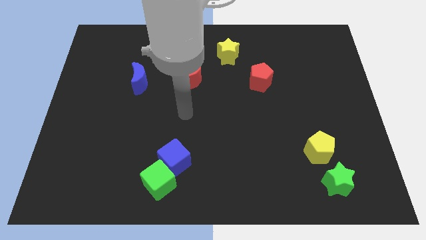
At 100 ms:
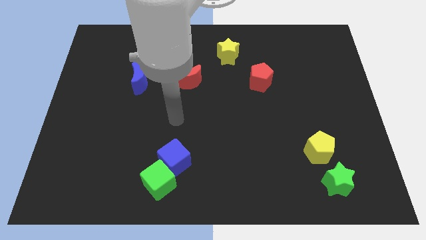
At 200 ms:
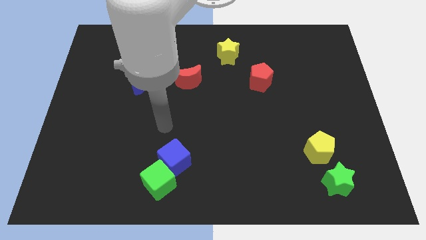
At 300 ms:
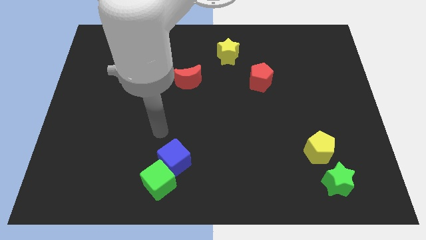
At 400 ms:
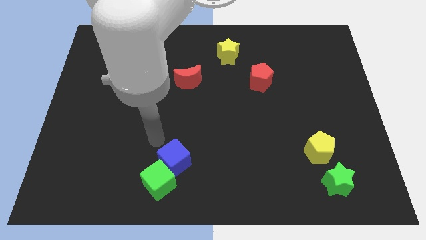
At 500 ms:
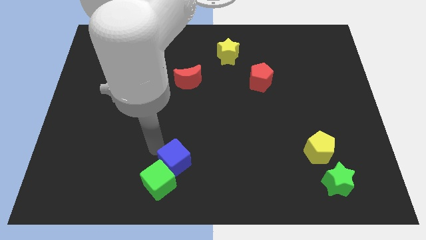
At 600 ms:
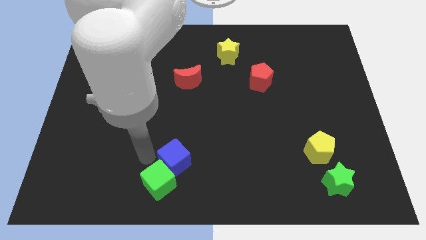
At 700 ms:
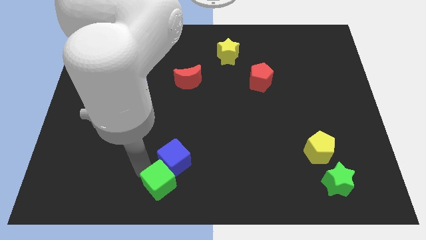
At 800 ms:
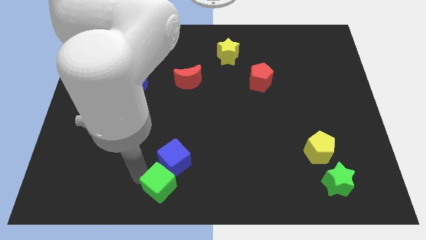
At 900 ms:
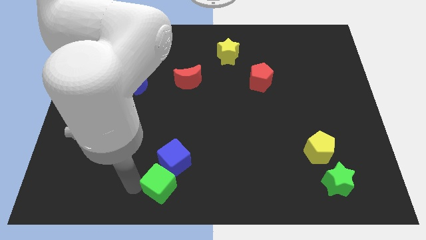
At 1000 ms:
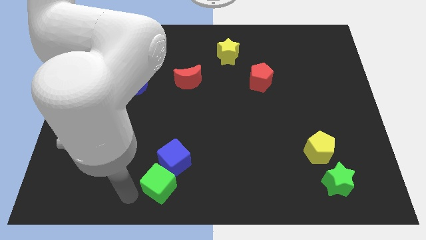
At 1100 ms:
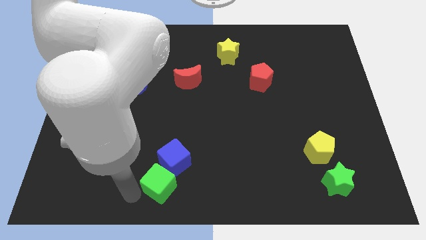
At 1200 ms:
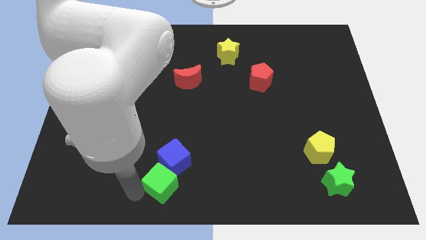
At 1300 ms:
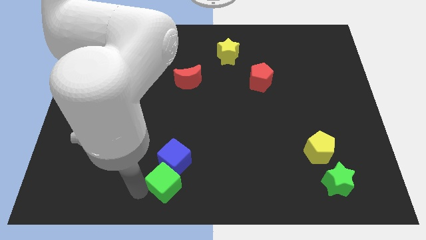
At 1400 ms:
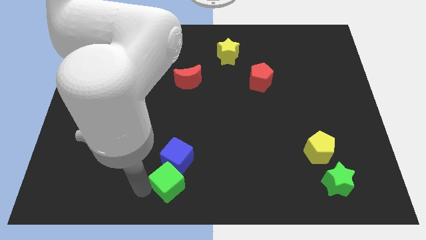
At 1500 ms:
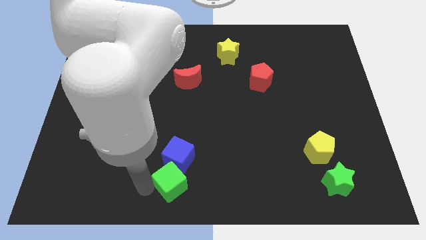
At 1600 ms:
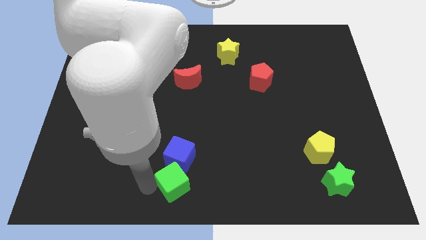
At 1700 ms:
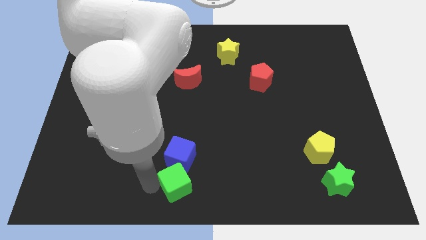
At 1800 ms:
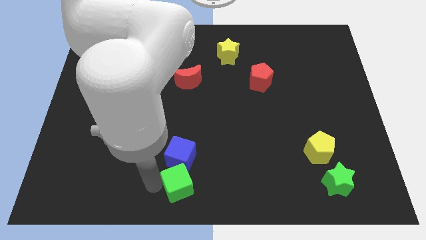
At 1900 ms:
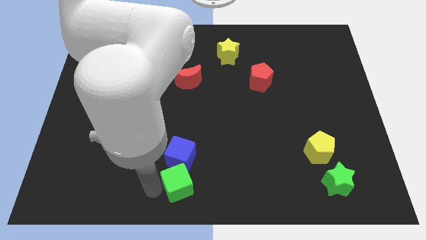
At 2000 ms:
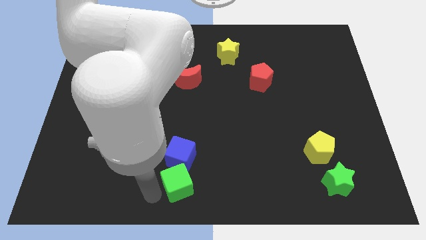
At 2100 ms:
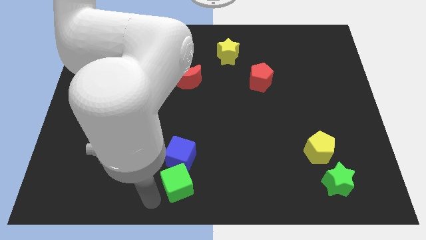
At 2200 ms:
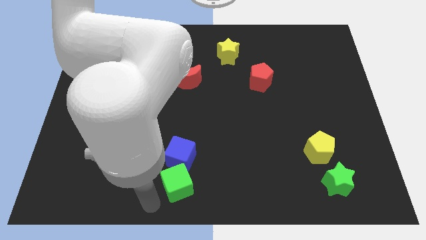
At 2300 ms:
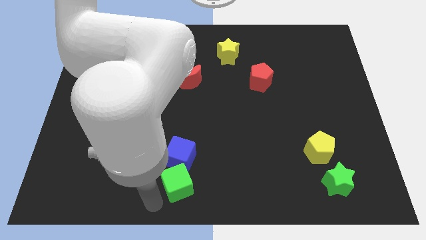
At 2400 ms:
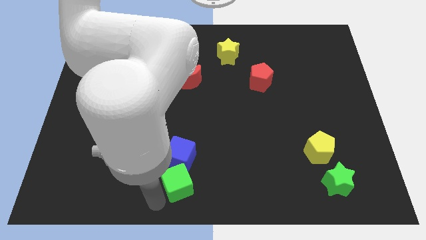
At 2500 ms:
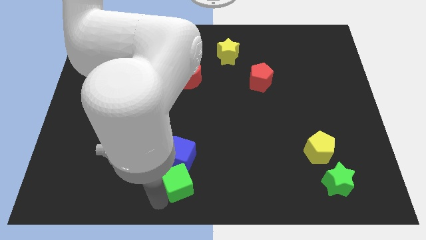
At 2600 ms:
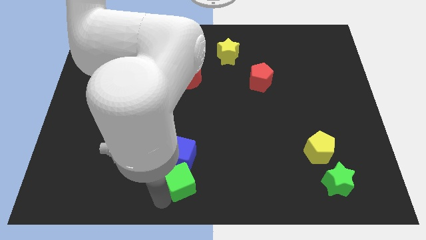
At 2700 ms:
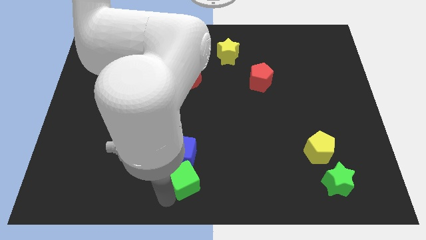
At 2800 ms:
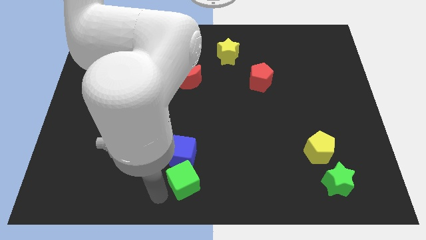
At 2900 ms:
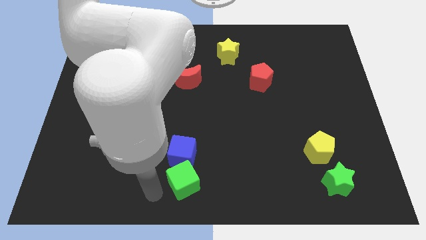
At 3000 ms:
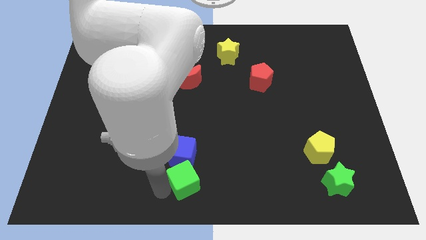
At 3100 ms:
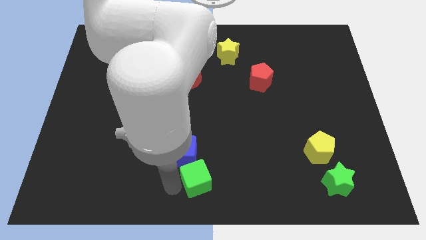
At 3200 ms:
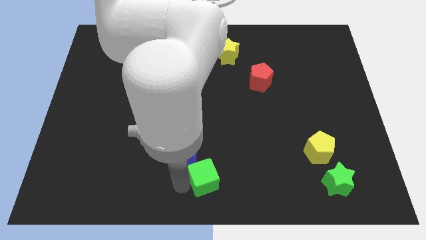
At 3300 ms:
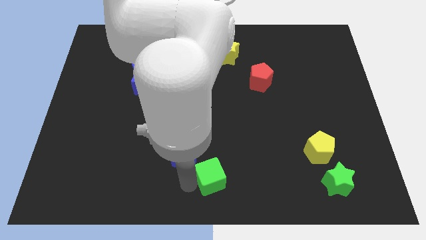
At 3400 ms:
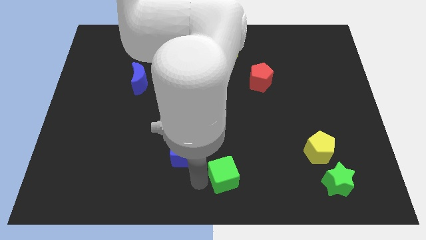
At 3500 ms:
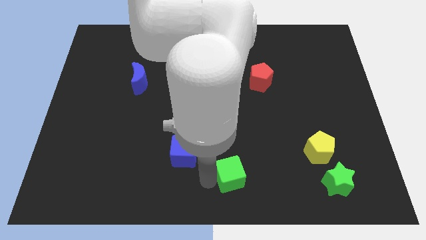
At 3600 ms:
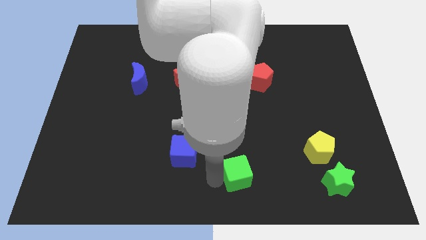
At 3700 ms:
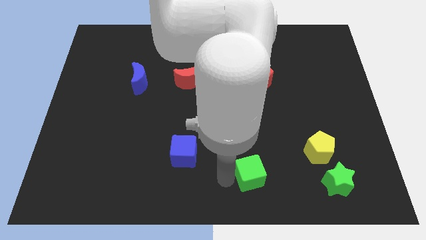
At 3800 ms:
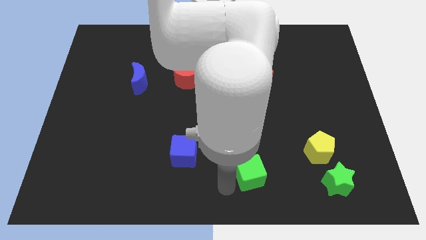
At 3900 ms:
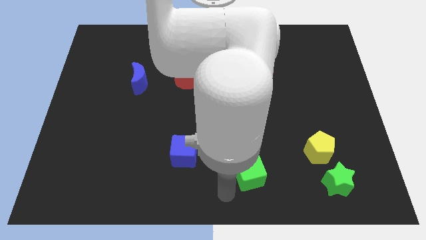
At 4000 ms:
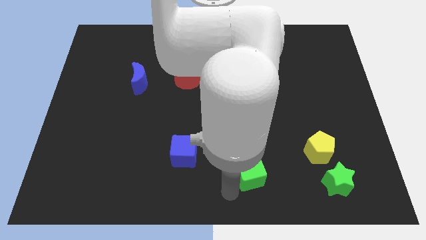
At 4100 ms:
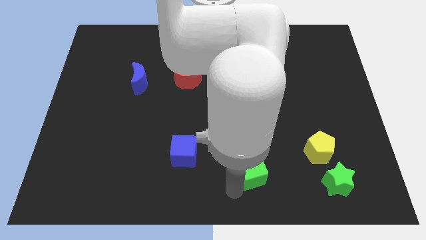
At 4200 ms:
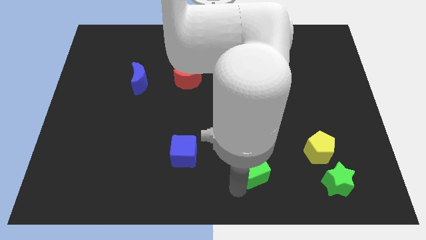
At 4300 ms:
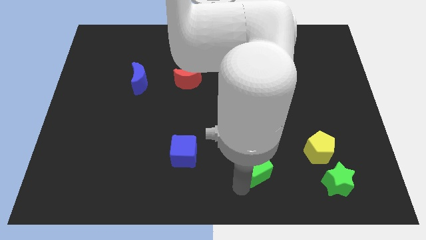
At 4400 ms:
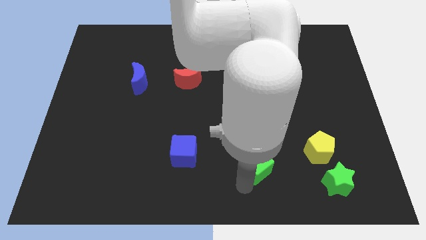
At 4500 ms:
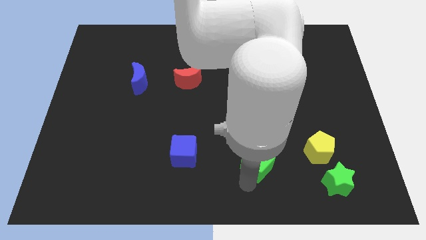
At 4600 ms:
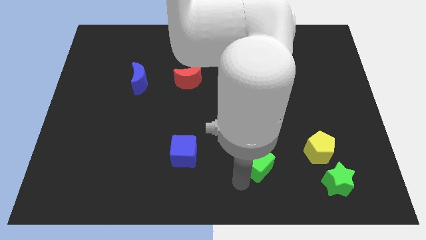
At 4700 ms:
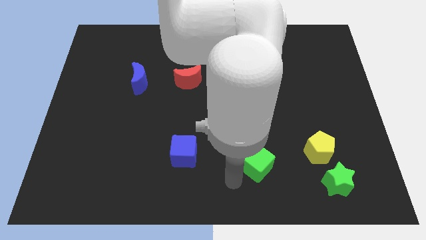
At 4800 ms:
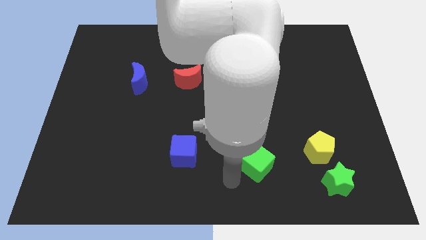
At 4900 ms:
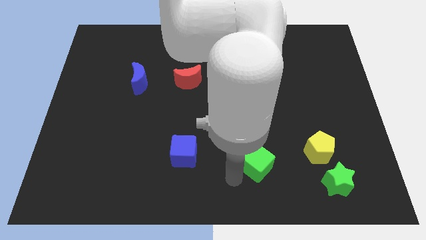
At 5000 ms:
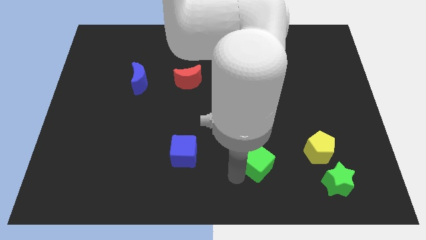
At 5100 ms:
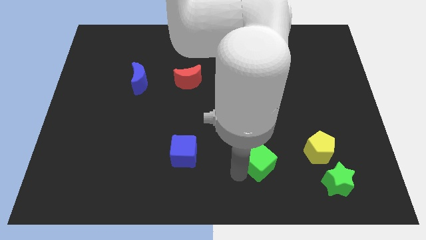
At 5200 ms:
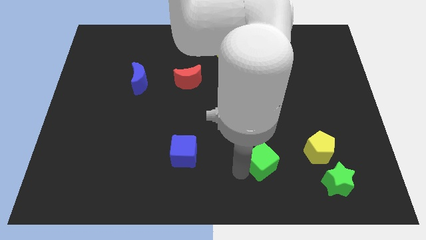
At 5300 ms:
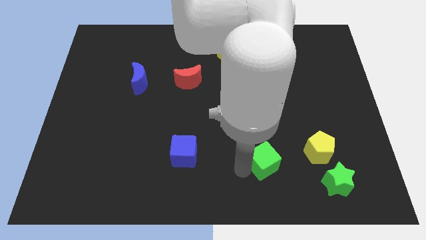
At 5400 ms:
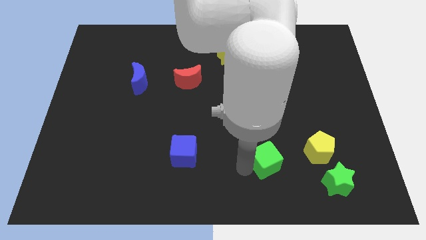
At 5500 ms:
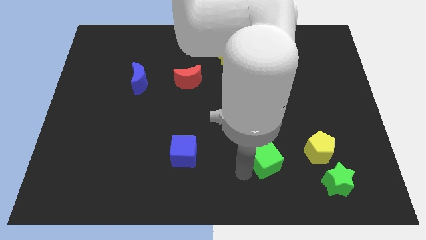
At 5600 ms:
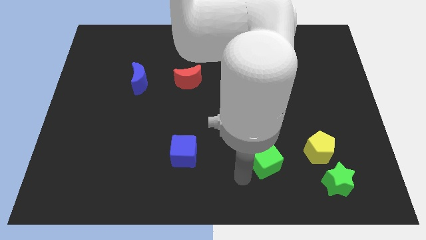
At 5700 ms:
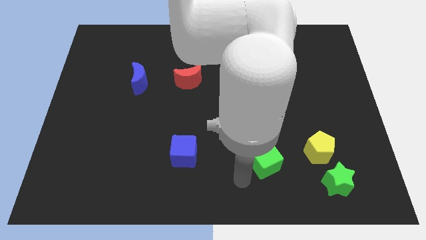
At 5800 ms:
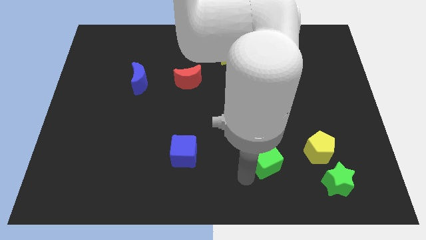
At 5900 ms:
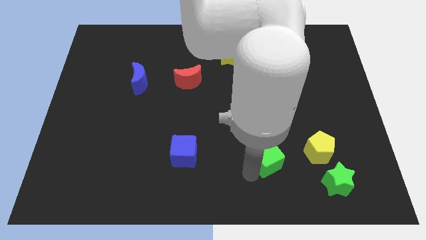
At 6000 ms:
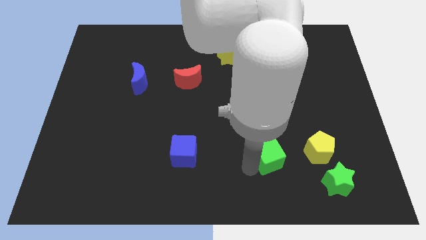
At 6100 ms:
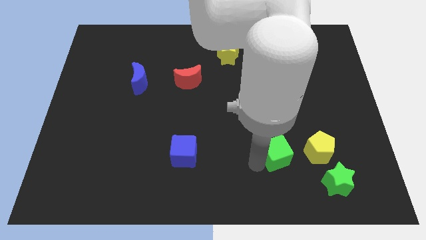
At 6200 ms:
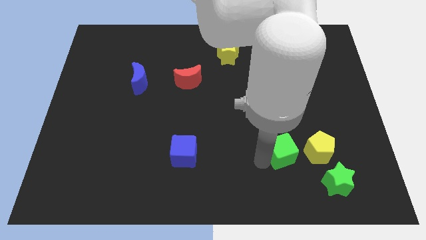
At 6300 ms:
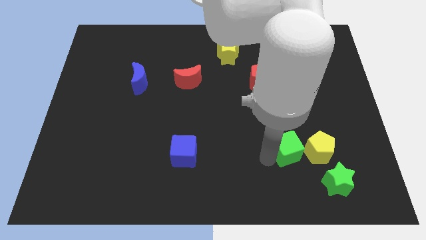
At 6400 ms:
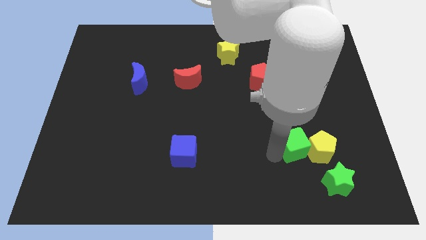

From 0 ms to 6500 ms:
put the green cube close to the yellow pentagon

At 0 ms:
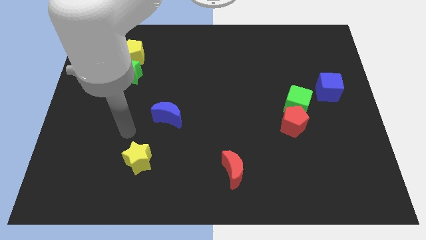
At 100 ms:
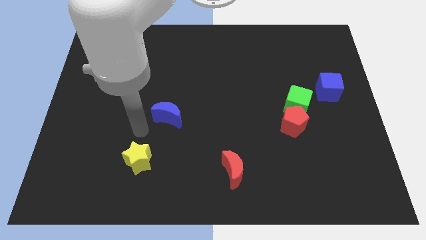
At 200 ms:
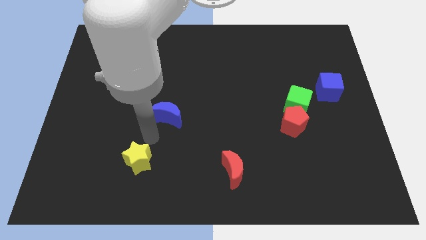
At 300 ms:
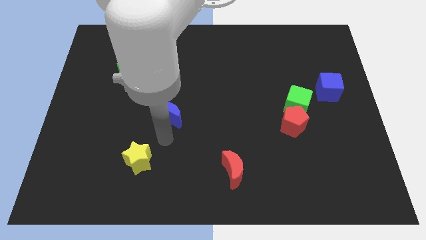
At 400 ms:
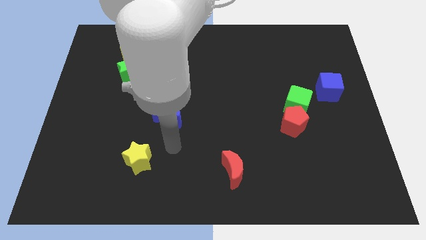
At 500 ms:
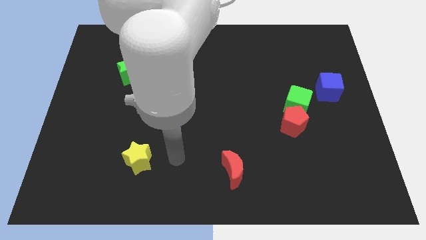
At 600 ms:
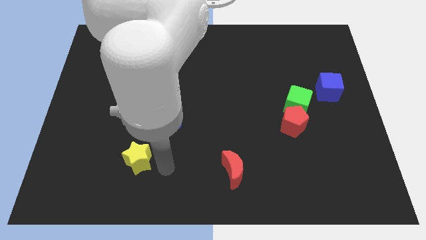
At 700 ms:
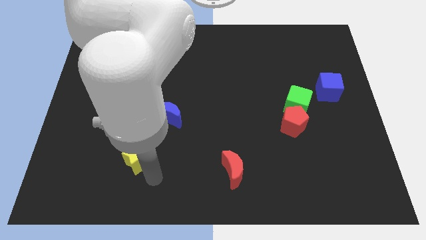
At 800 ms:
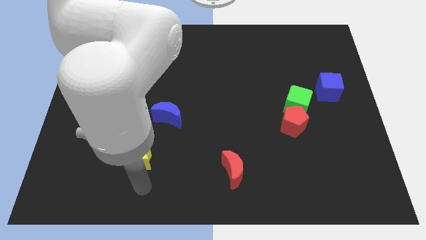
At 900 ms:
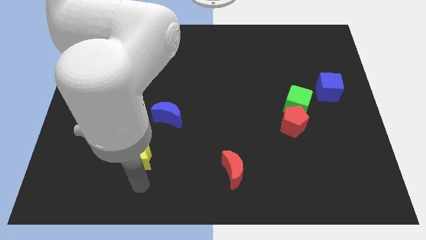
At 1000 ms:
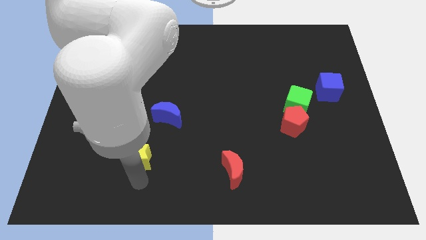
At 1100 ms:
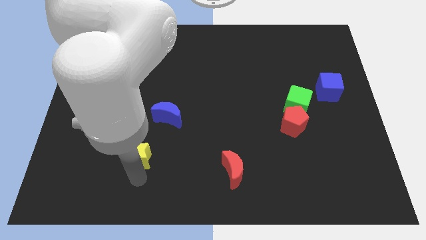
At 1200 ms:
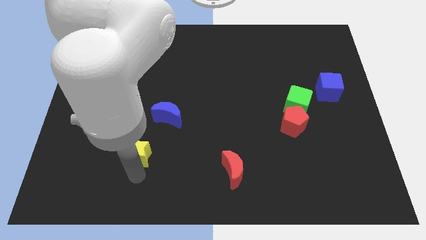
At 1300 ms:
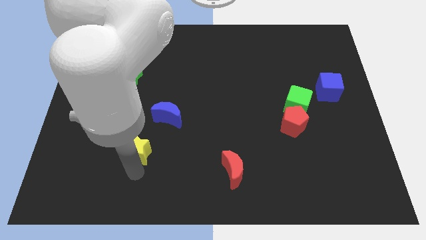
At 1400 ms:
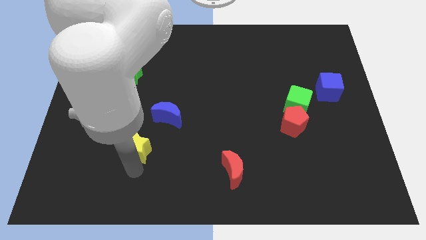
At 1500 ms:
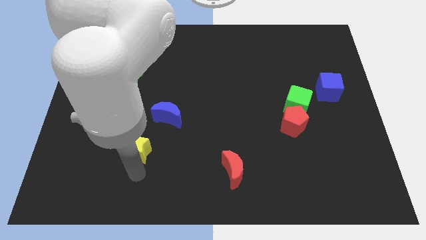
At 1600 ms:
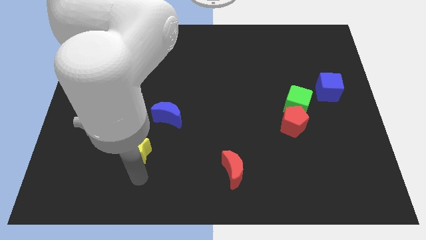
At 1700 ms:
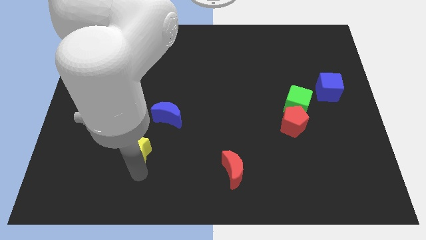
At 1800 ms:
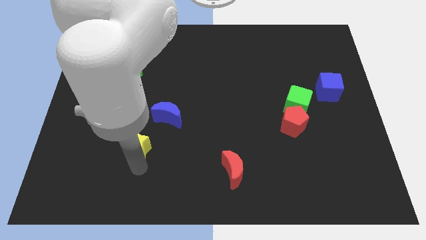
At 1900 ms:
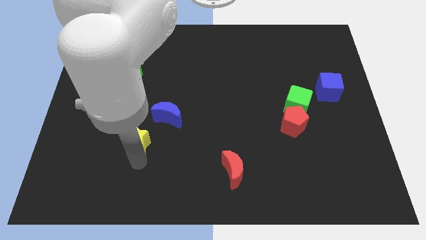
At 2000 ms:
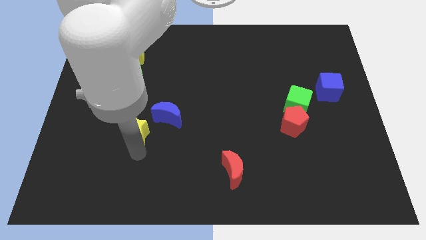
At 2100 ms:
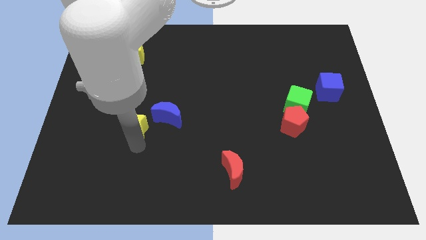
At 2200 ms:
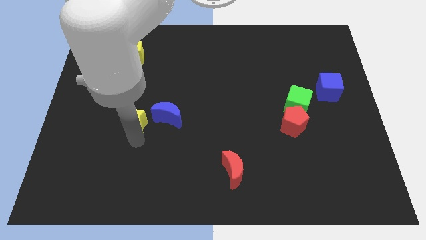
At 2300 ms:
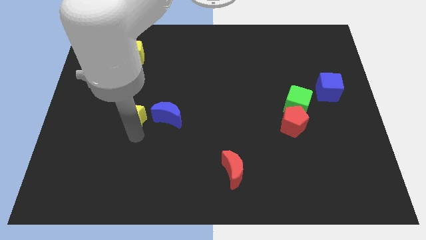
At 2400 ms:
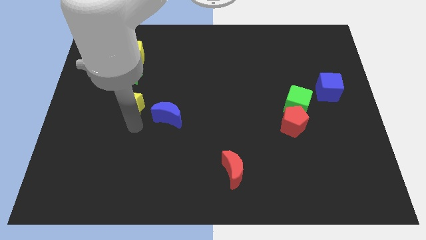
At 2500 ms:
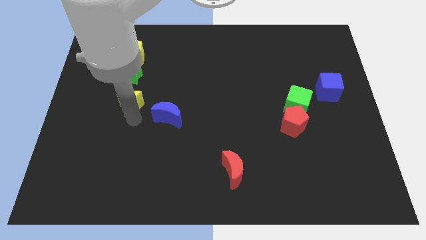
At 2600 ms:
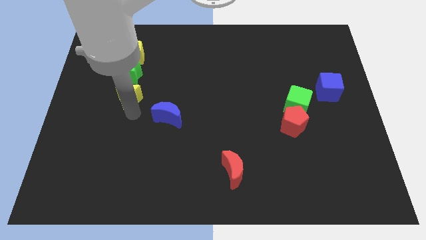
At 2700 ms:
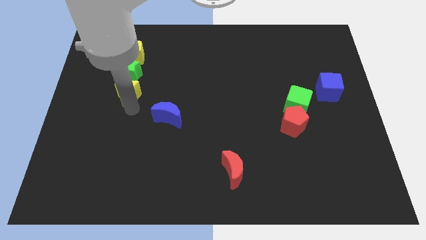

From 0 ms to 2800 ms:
slide the yellow star close to the green star
